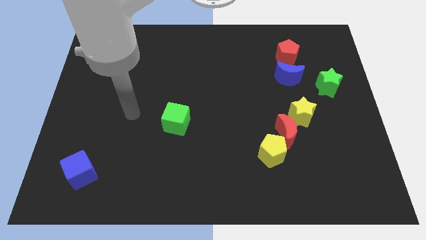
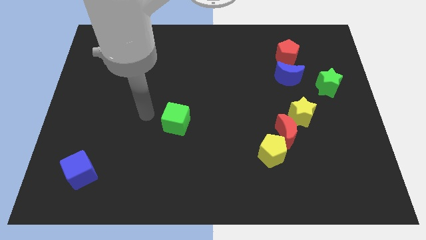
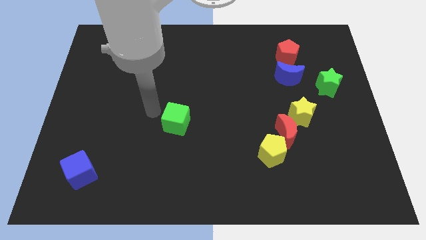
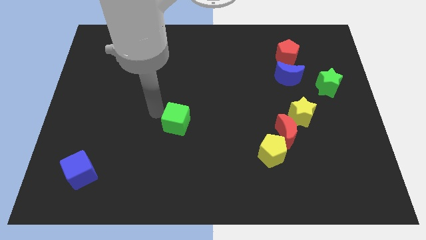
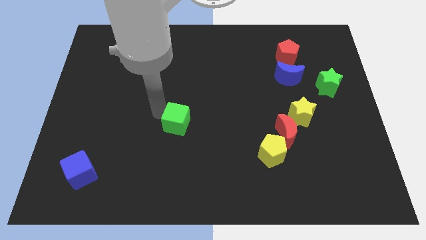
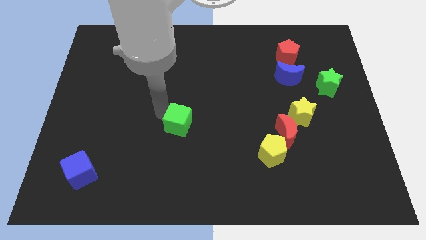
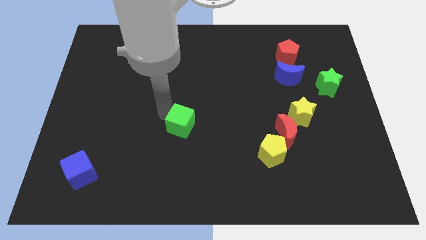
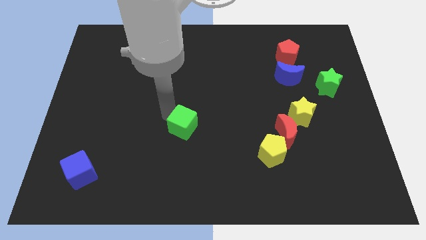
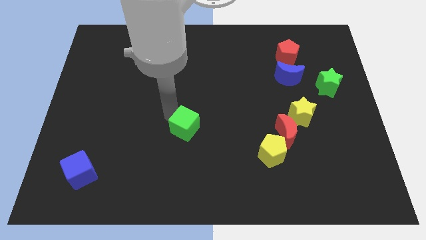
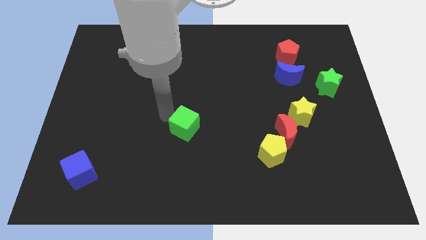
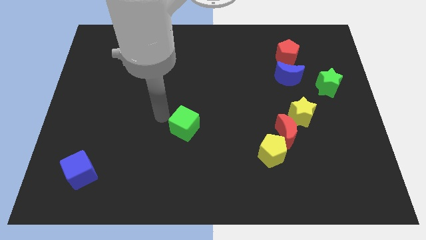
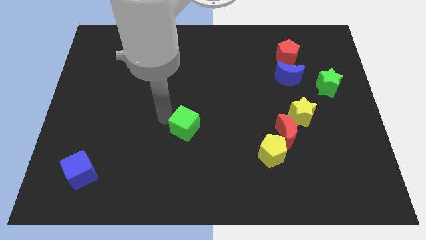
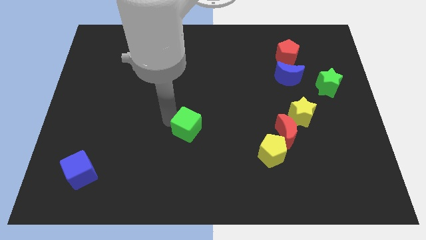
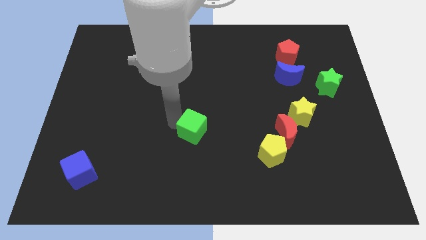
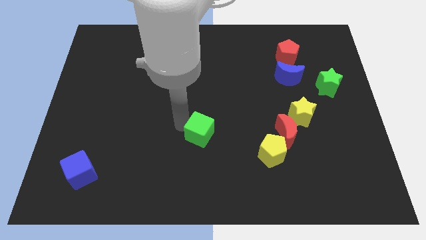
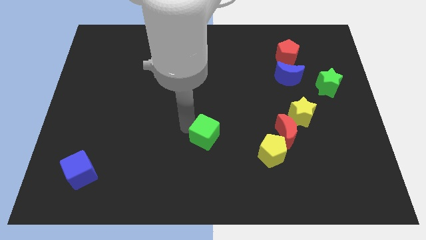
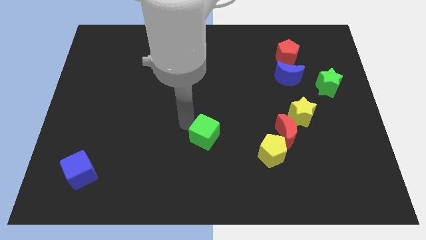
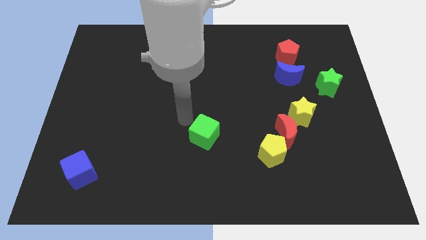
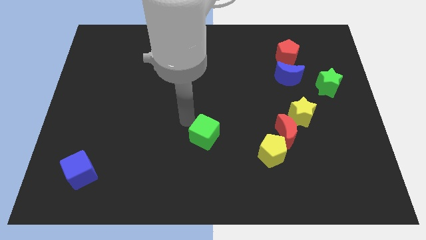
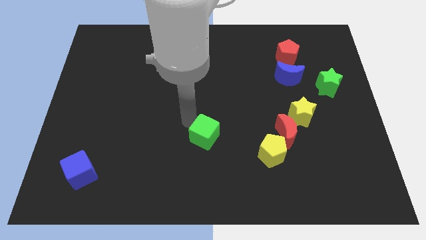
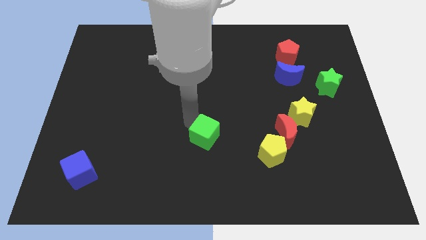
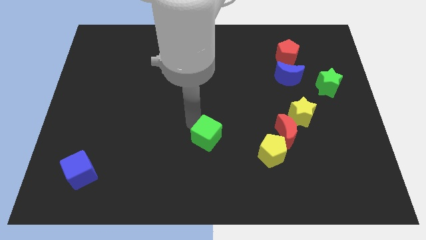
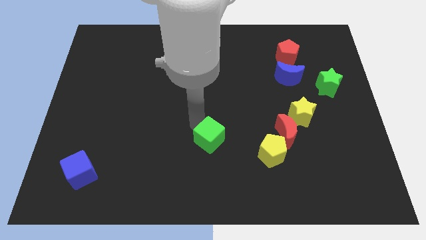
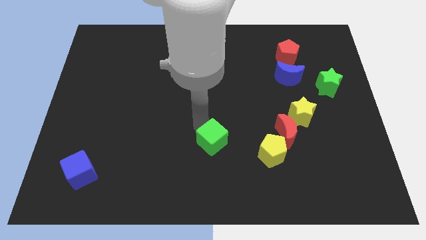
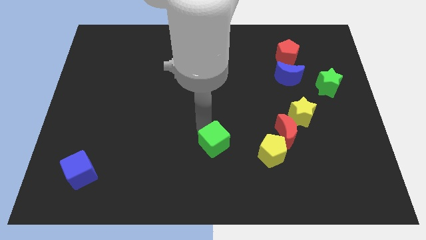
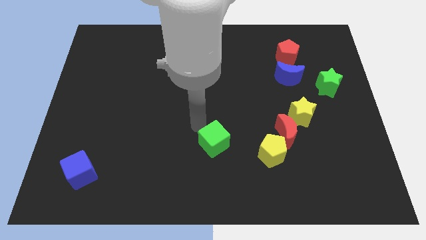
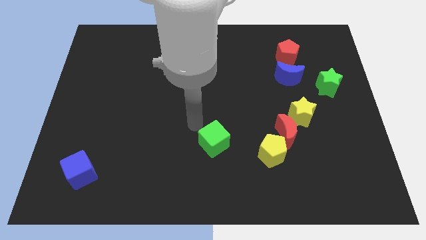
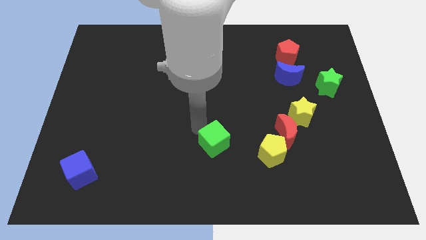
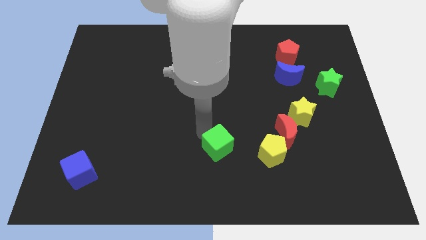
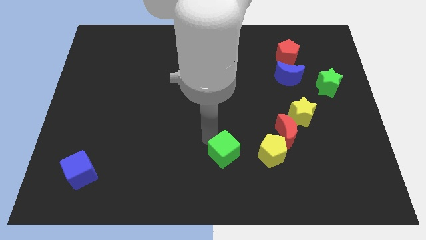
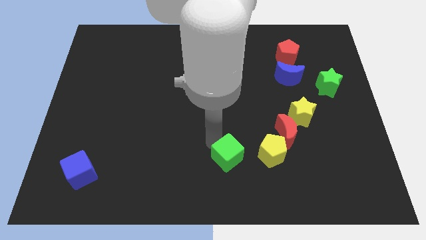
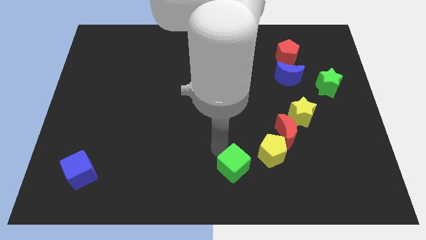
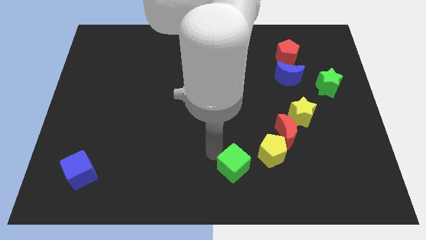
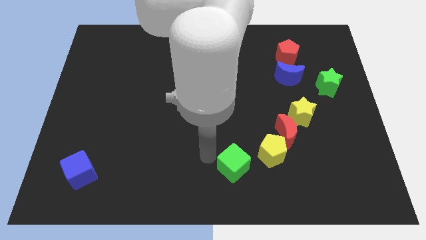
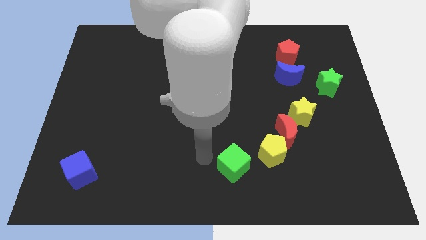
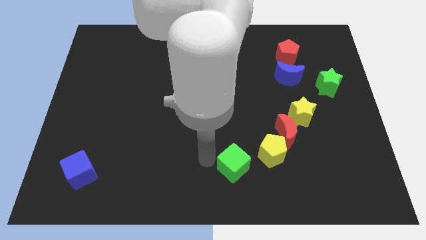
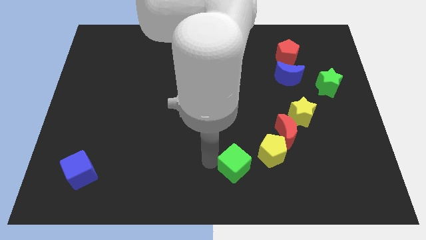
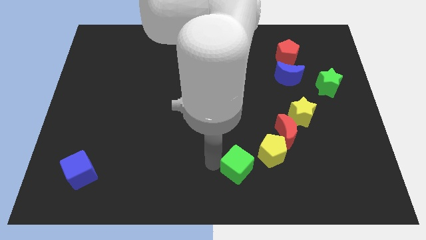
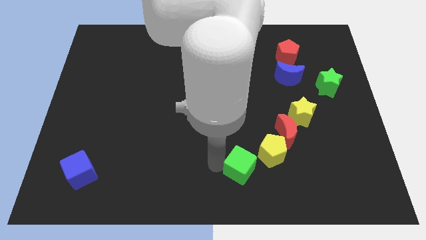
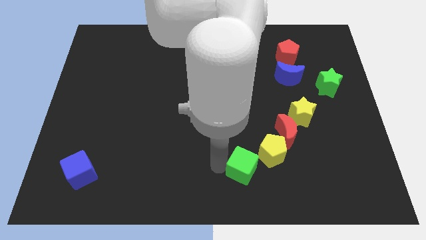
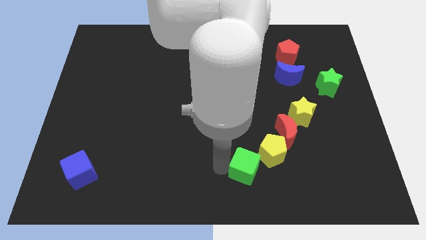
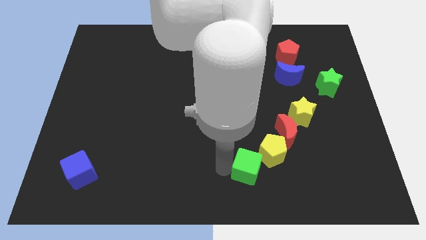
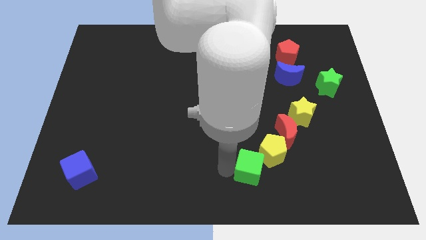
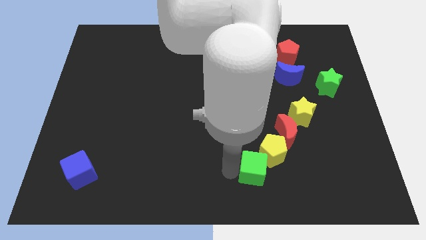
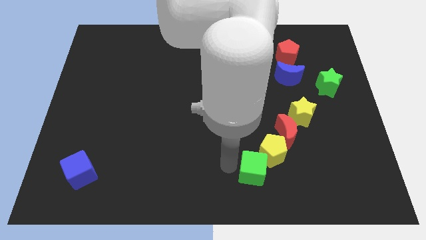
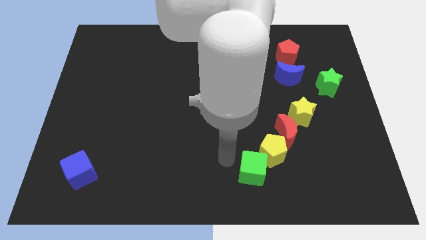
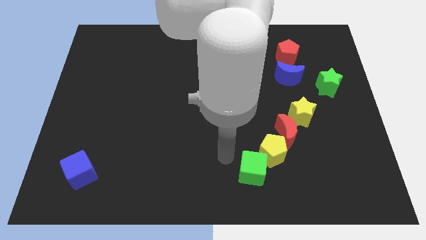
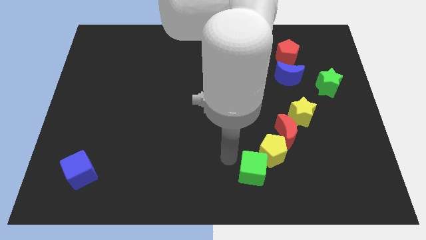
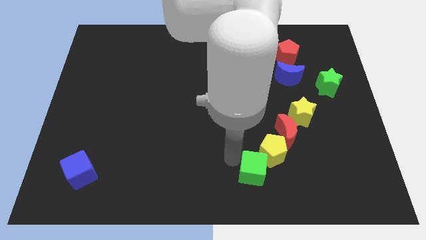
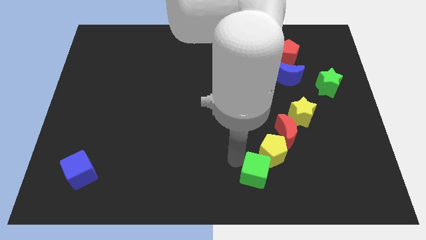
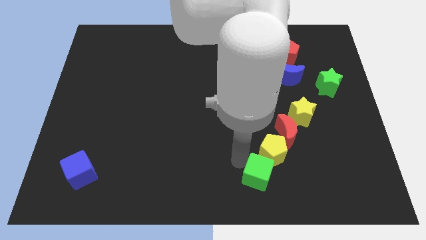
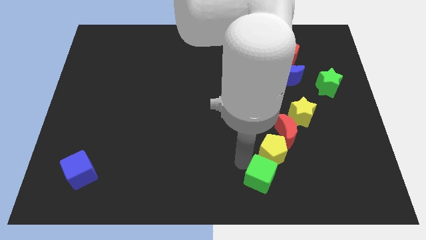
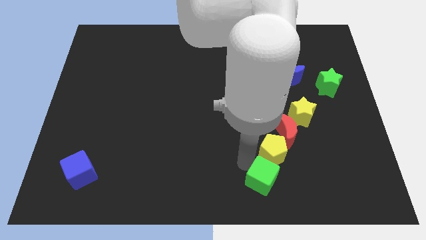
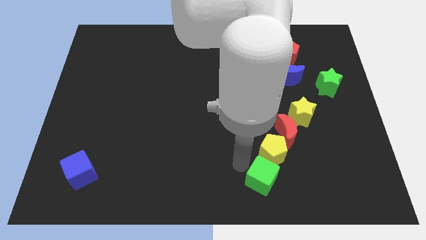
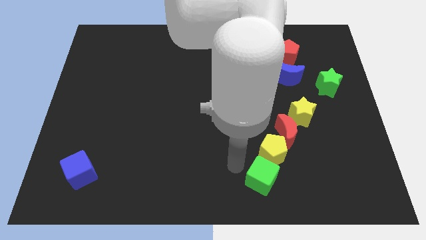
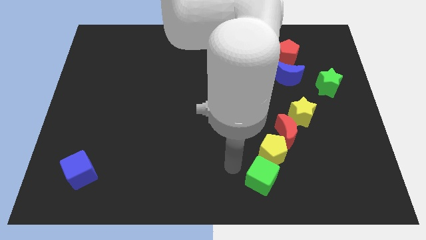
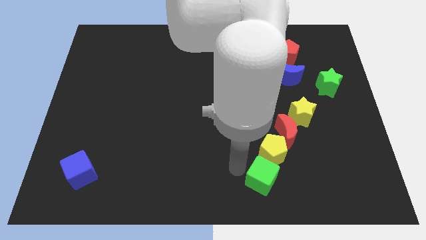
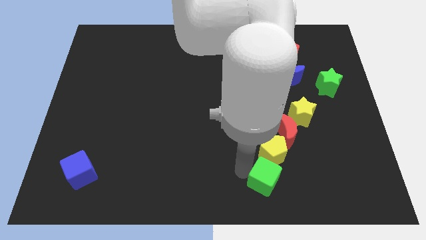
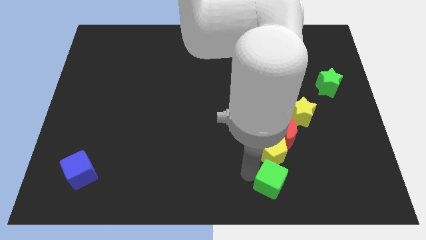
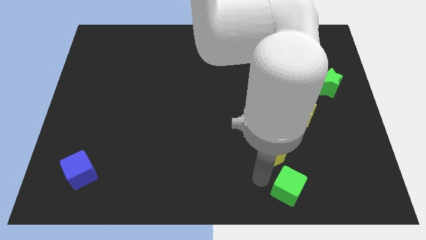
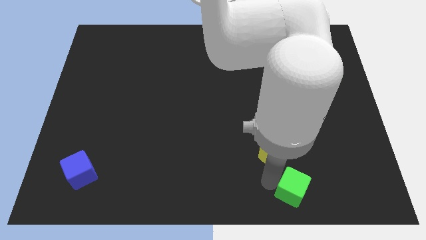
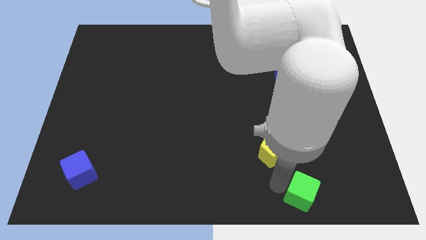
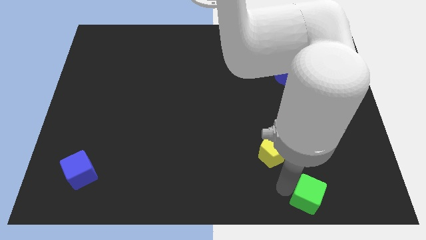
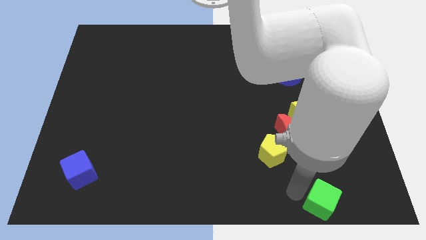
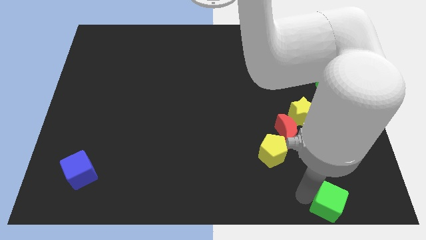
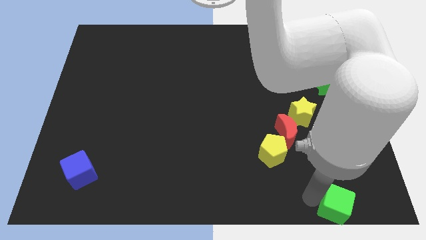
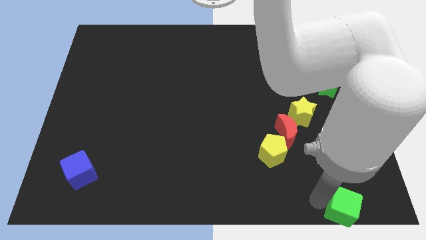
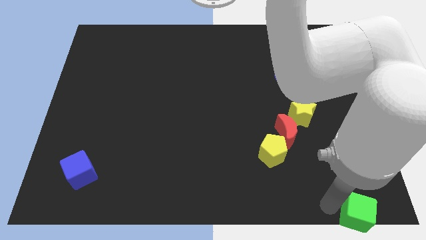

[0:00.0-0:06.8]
push the green cube to the bottom right of the board
